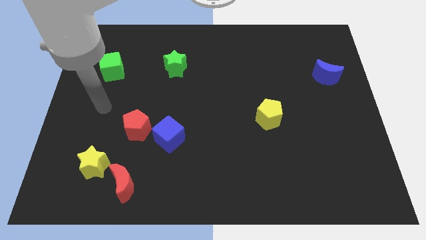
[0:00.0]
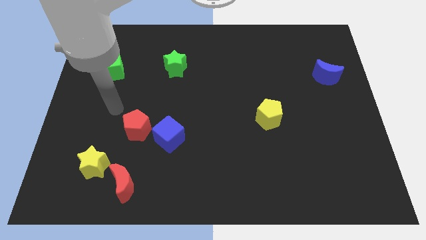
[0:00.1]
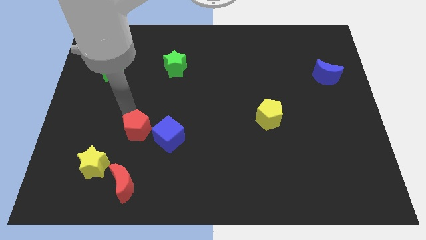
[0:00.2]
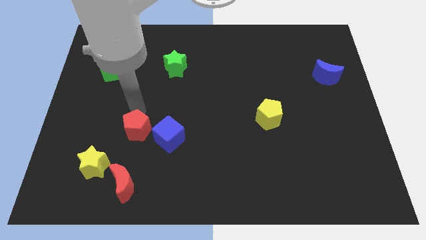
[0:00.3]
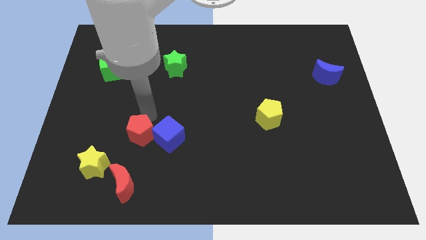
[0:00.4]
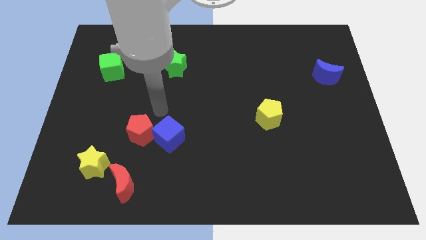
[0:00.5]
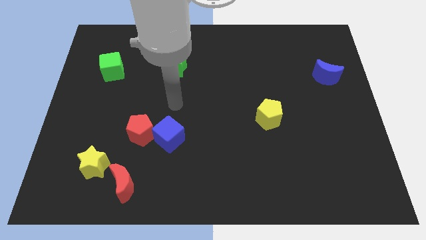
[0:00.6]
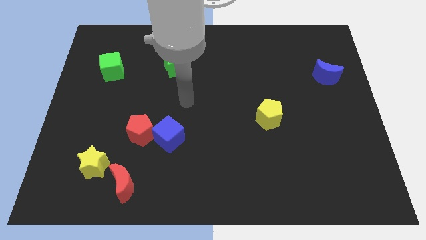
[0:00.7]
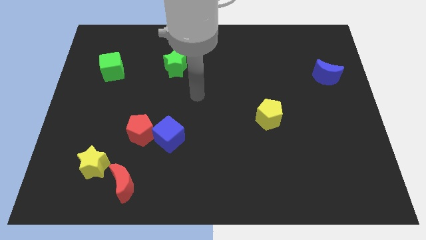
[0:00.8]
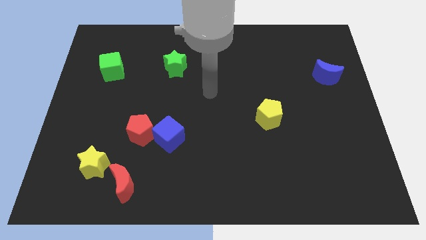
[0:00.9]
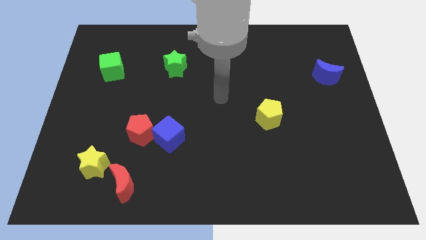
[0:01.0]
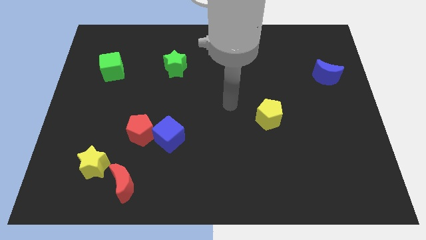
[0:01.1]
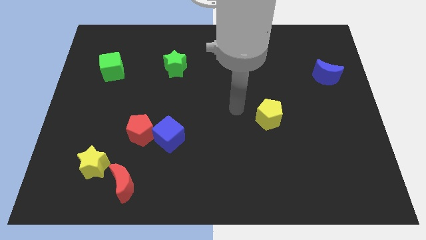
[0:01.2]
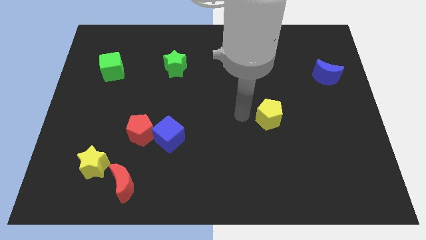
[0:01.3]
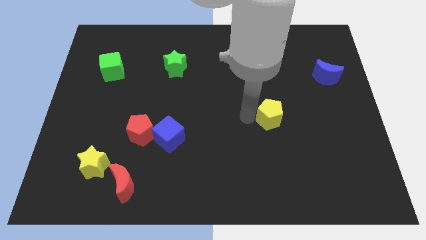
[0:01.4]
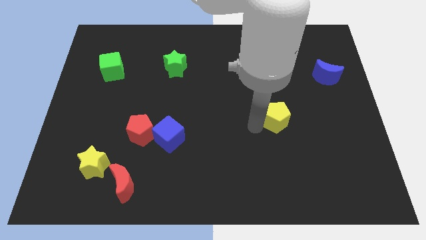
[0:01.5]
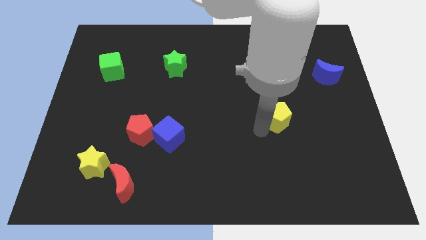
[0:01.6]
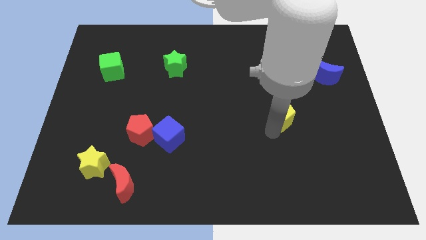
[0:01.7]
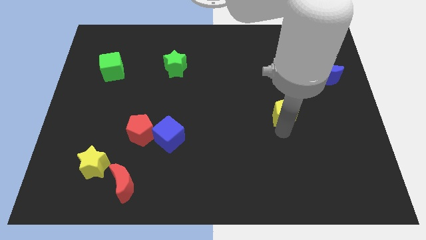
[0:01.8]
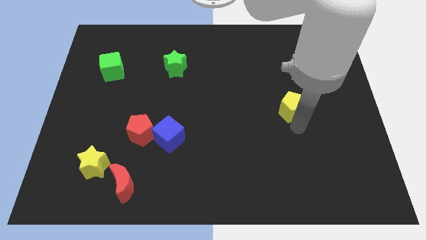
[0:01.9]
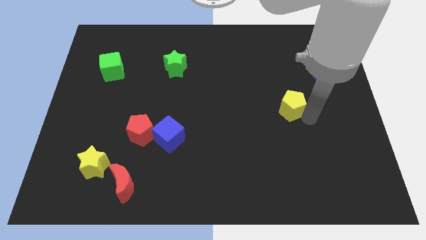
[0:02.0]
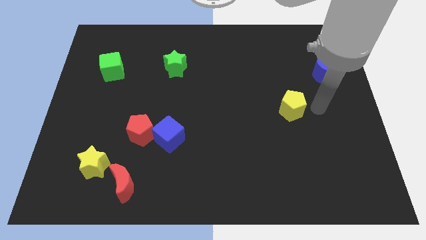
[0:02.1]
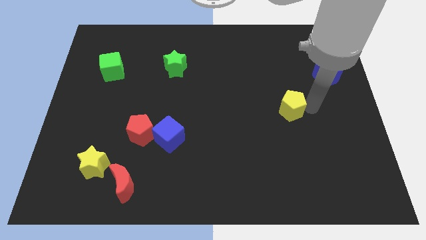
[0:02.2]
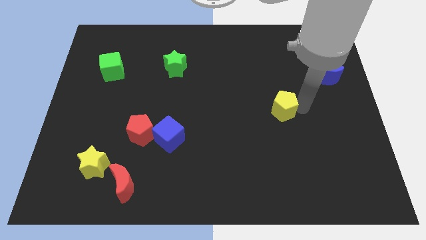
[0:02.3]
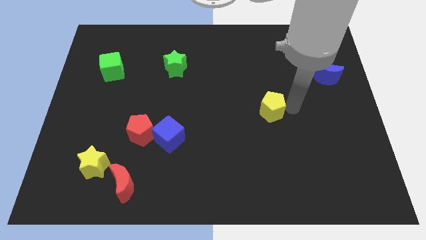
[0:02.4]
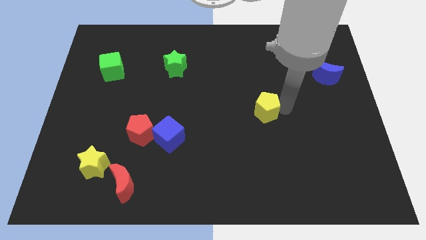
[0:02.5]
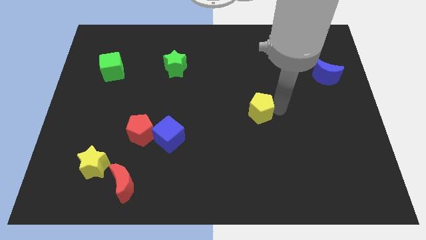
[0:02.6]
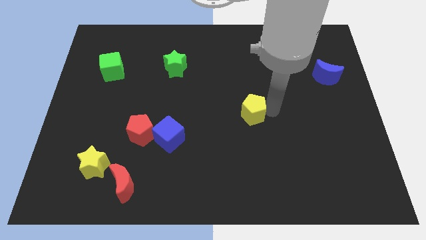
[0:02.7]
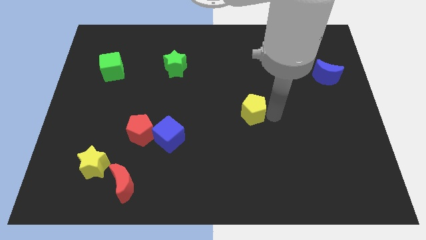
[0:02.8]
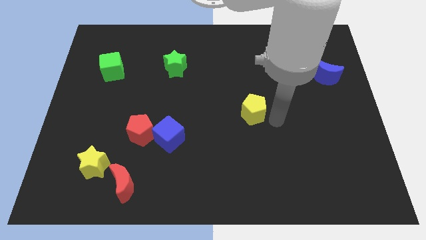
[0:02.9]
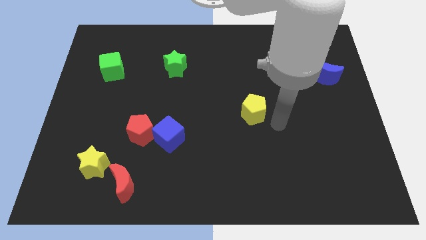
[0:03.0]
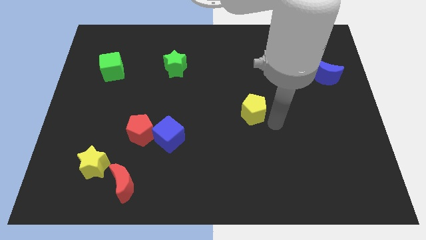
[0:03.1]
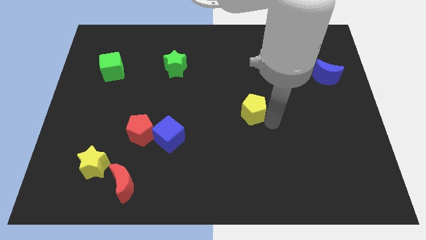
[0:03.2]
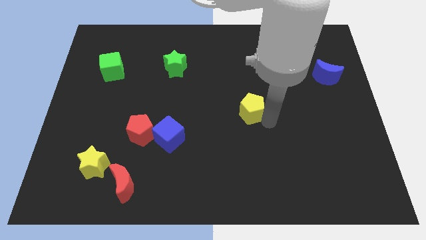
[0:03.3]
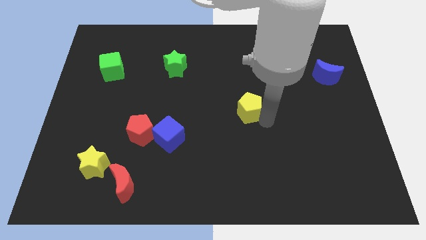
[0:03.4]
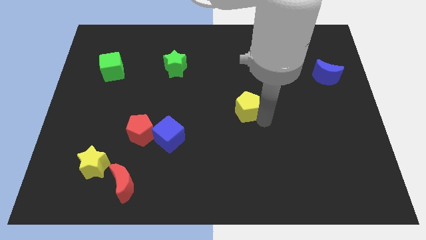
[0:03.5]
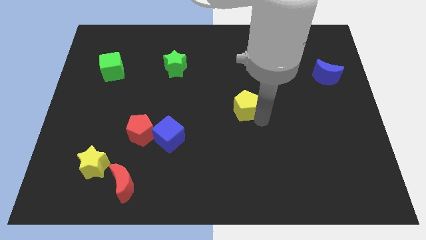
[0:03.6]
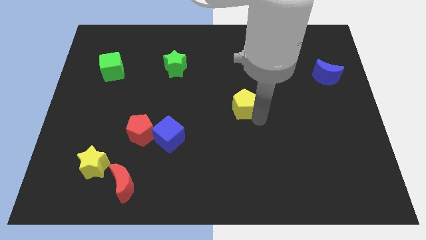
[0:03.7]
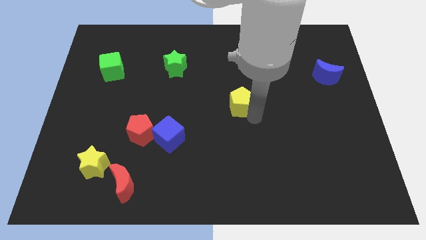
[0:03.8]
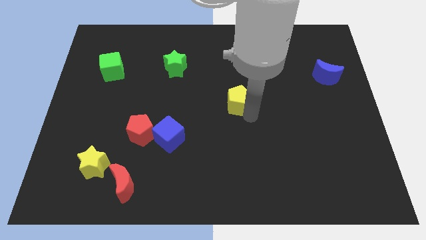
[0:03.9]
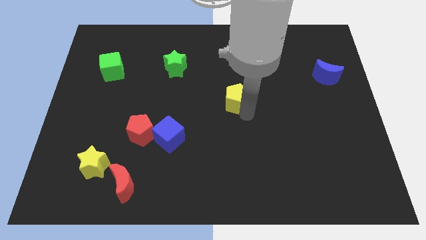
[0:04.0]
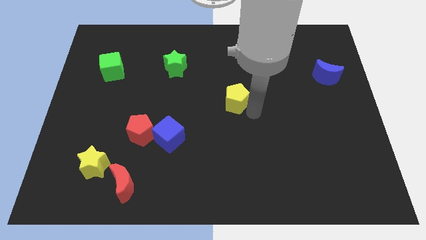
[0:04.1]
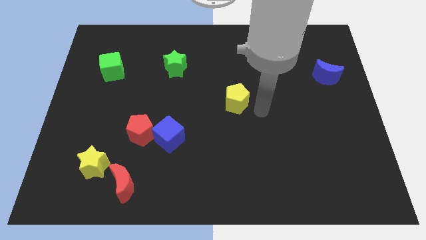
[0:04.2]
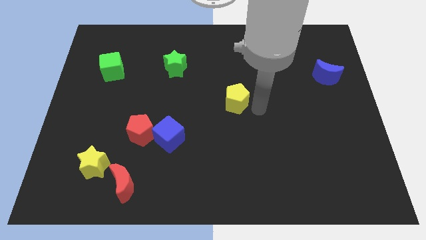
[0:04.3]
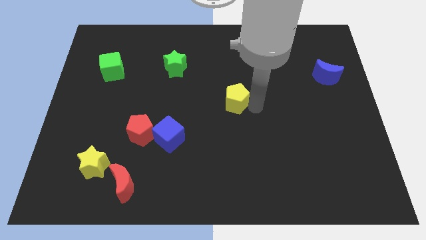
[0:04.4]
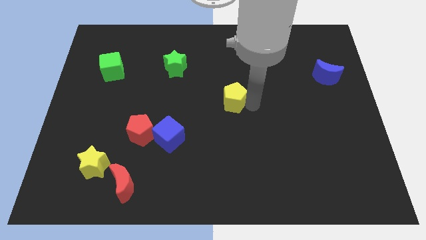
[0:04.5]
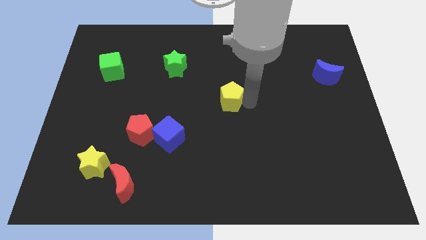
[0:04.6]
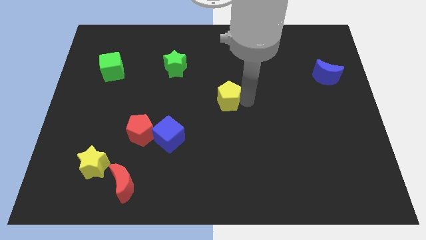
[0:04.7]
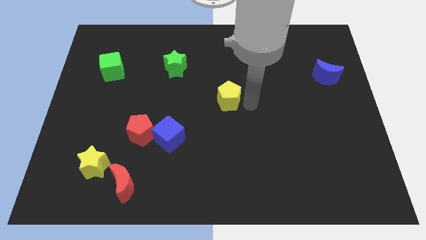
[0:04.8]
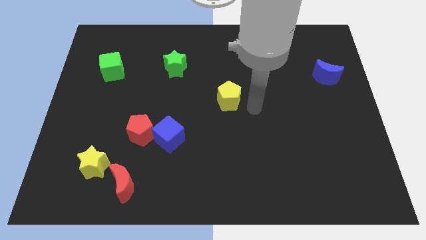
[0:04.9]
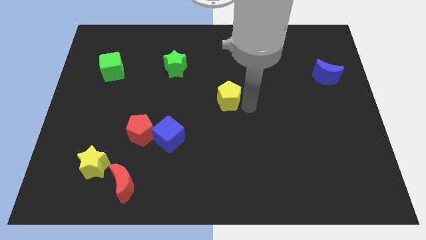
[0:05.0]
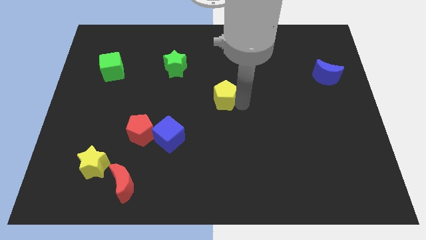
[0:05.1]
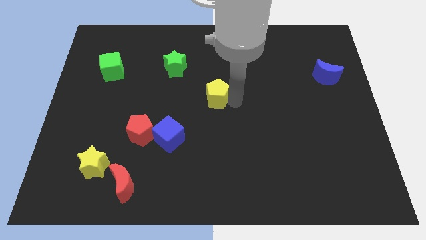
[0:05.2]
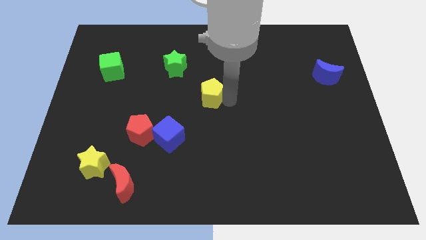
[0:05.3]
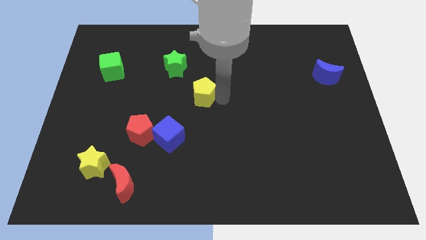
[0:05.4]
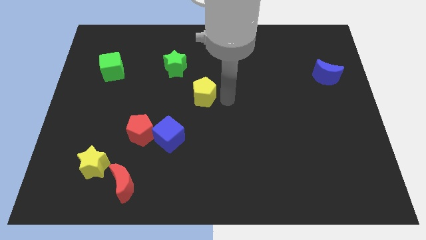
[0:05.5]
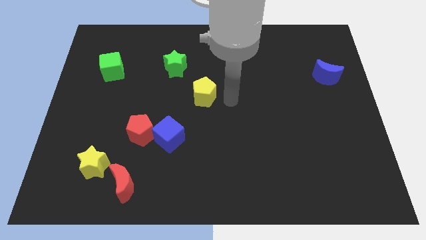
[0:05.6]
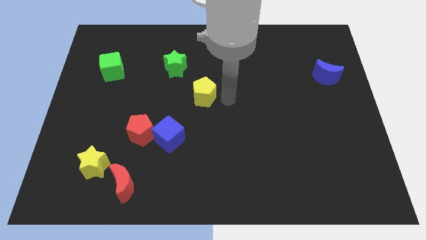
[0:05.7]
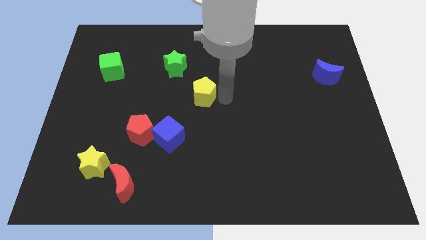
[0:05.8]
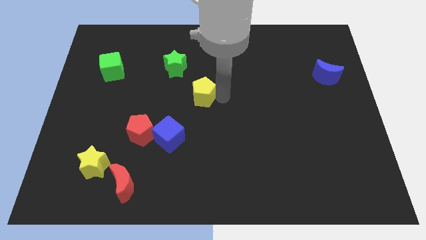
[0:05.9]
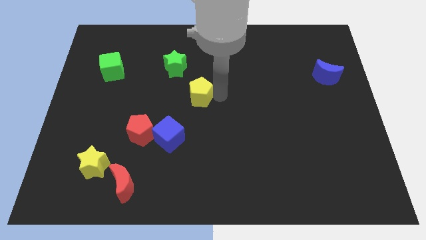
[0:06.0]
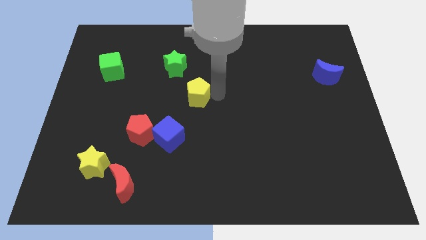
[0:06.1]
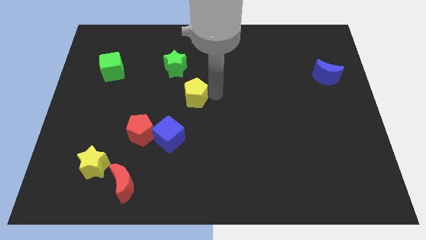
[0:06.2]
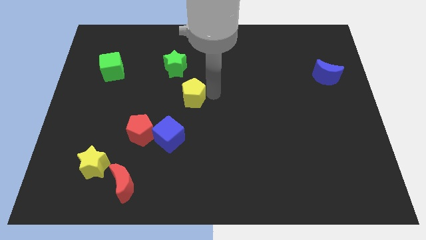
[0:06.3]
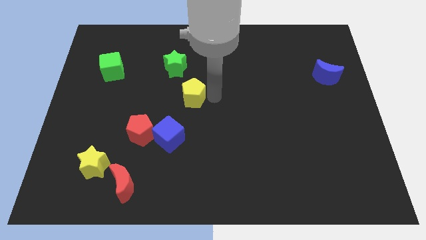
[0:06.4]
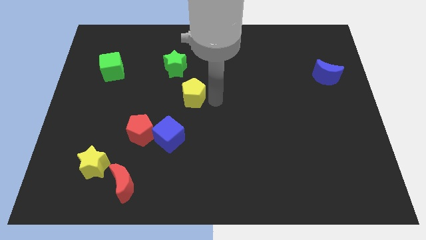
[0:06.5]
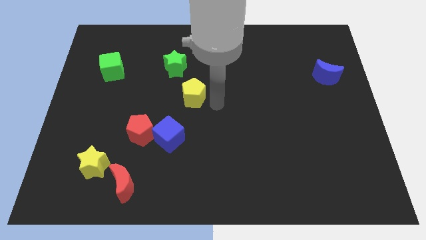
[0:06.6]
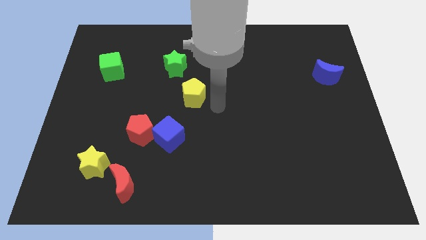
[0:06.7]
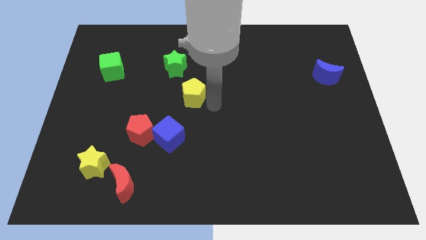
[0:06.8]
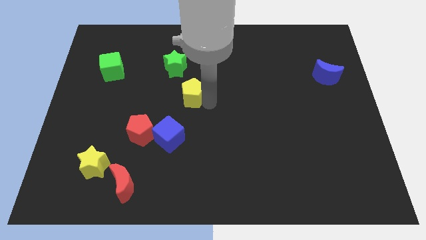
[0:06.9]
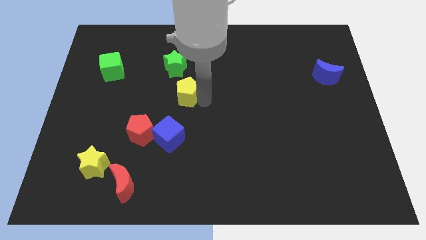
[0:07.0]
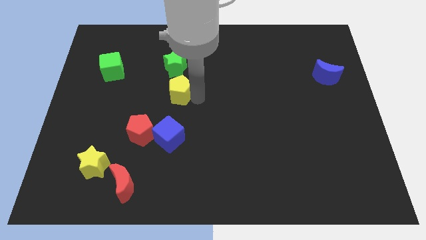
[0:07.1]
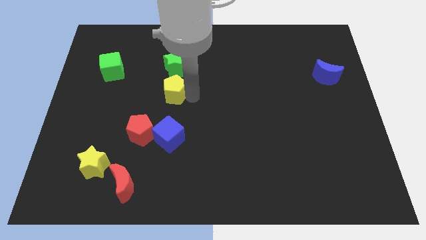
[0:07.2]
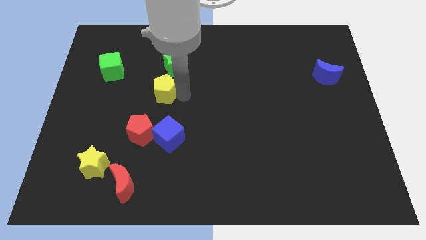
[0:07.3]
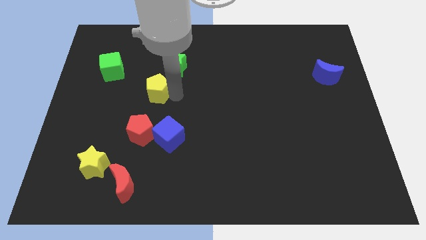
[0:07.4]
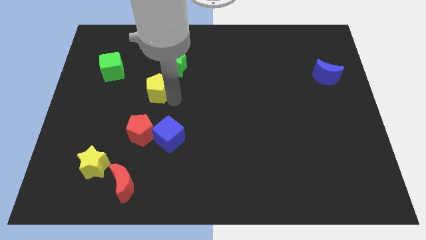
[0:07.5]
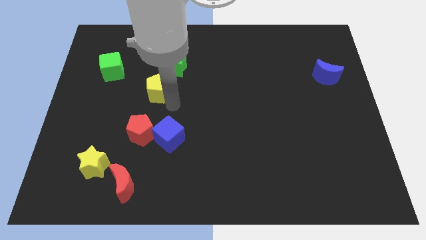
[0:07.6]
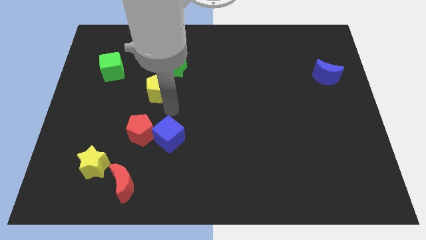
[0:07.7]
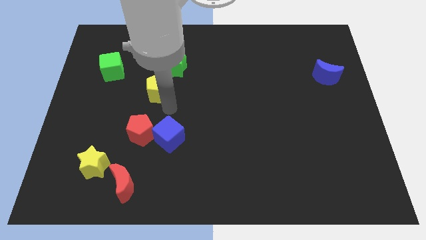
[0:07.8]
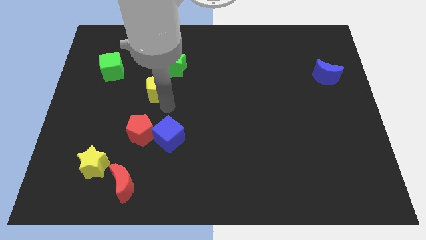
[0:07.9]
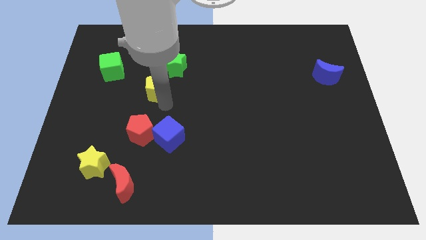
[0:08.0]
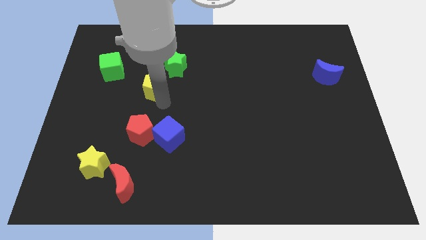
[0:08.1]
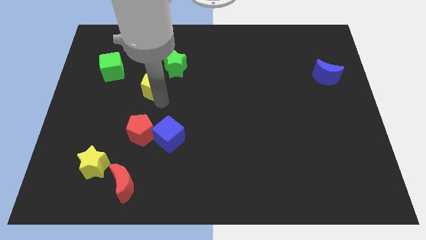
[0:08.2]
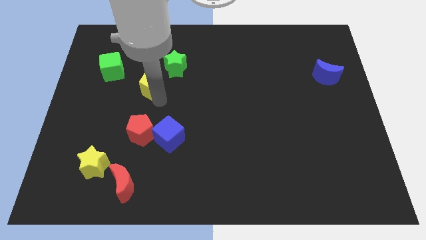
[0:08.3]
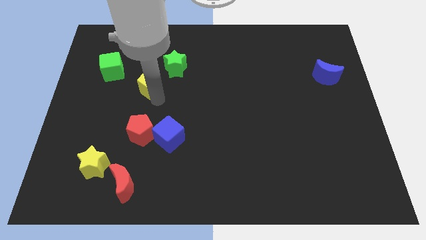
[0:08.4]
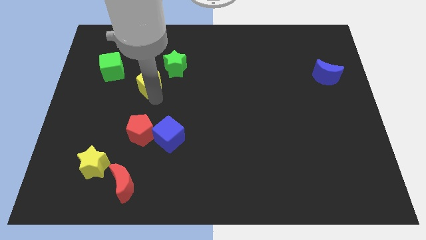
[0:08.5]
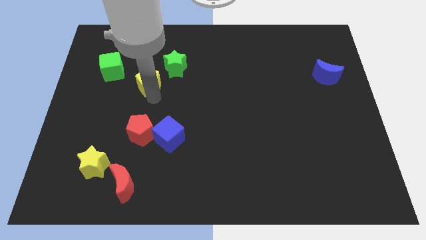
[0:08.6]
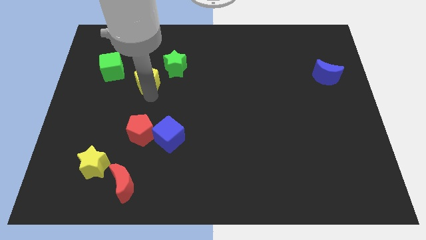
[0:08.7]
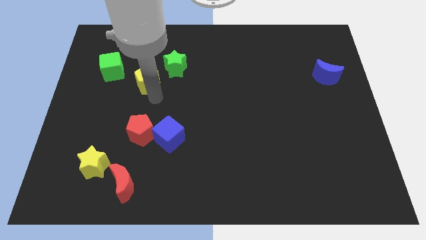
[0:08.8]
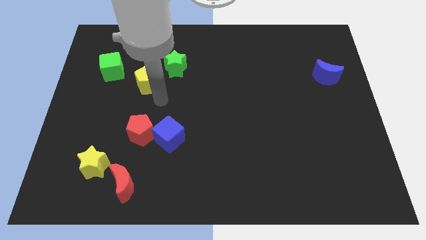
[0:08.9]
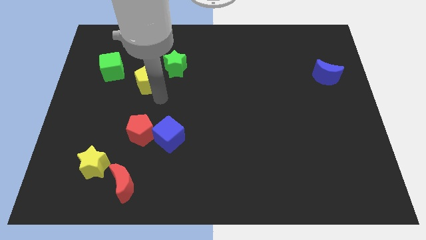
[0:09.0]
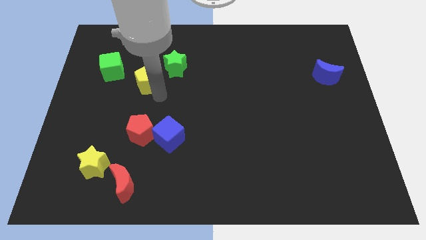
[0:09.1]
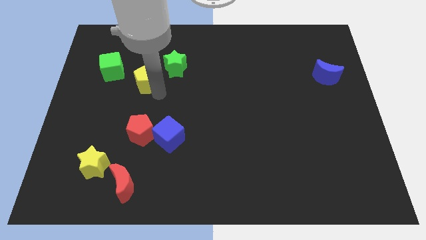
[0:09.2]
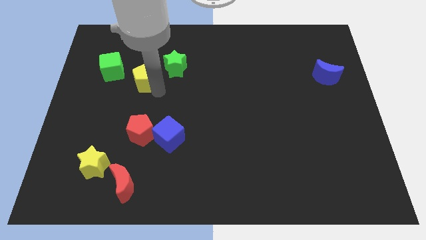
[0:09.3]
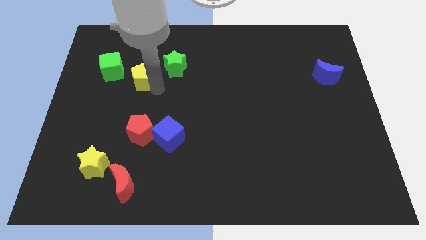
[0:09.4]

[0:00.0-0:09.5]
push the yellow pentagon just left of the green star
